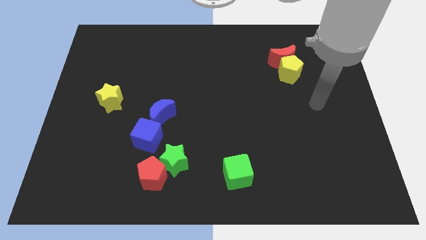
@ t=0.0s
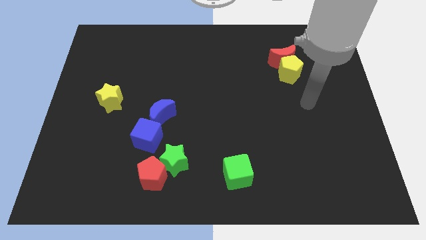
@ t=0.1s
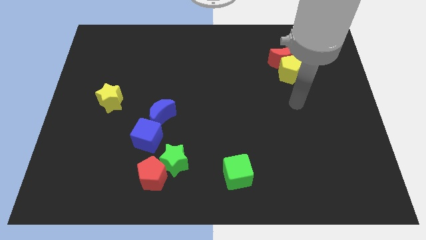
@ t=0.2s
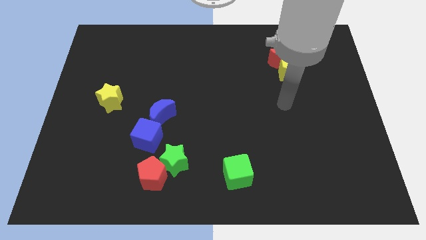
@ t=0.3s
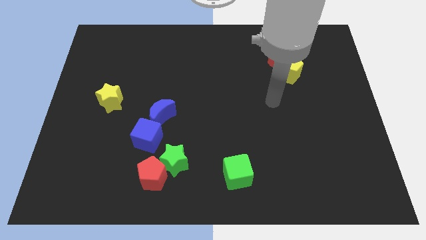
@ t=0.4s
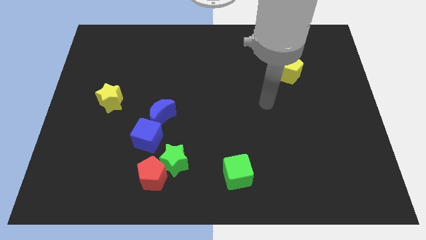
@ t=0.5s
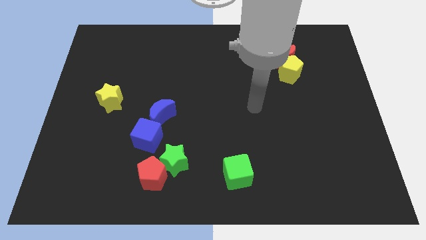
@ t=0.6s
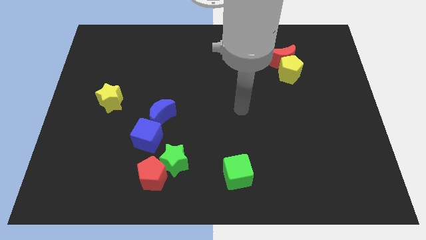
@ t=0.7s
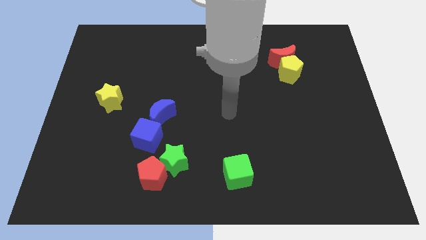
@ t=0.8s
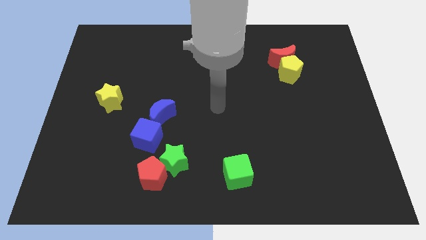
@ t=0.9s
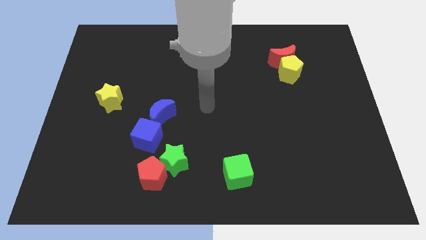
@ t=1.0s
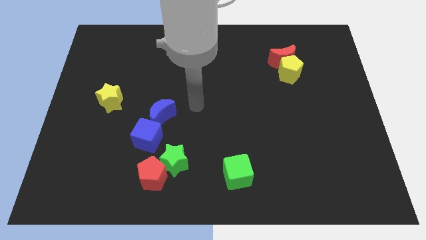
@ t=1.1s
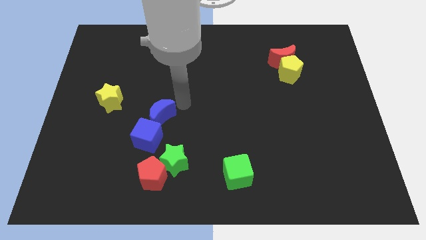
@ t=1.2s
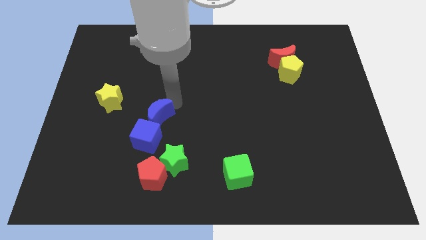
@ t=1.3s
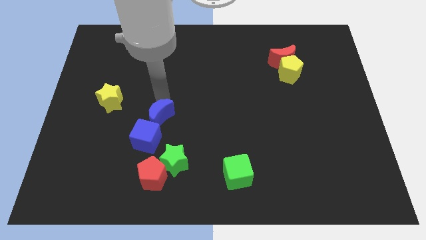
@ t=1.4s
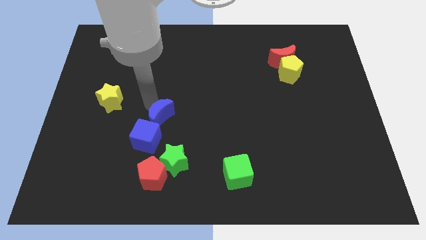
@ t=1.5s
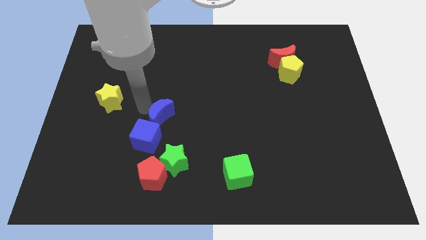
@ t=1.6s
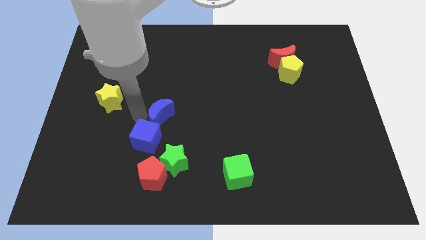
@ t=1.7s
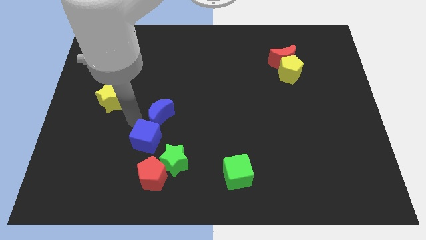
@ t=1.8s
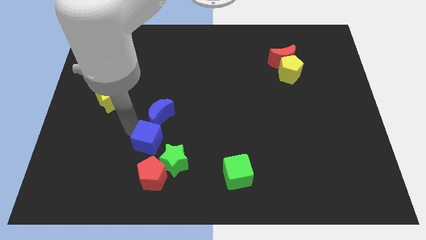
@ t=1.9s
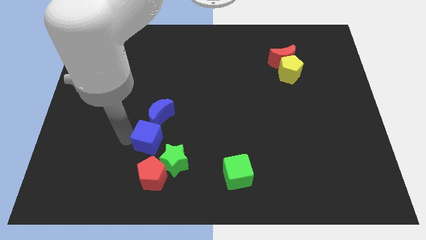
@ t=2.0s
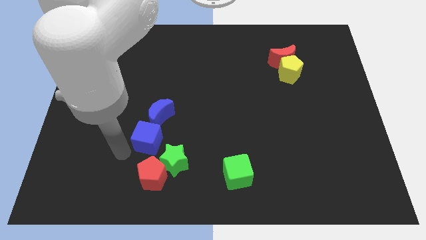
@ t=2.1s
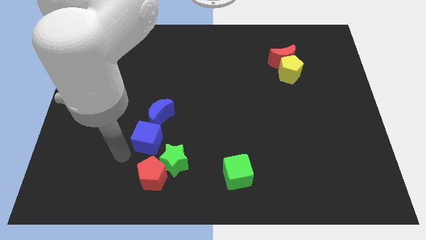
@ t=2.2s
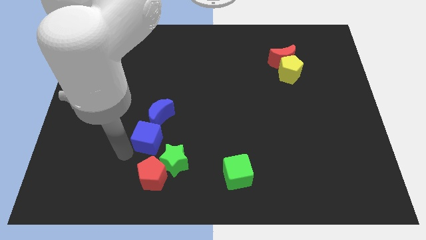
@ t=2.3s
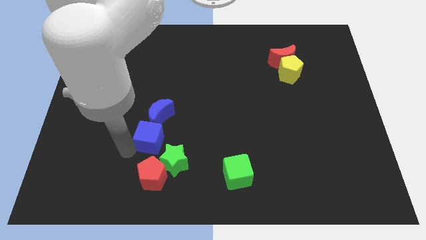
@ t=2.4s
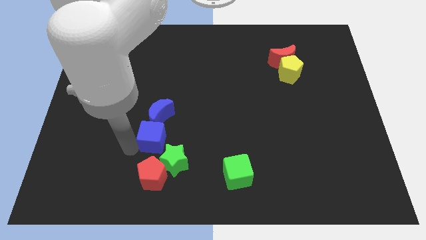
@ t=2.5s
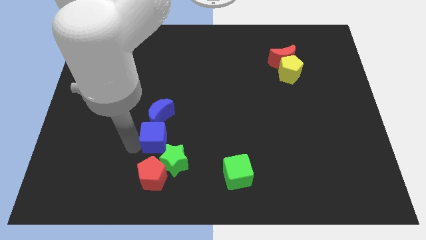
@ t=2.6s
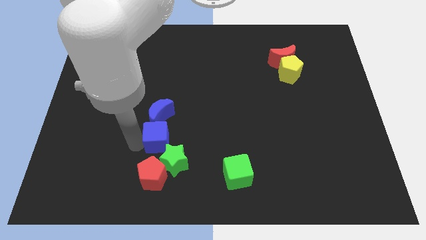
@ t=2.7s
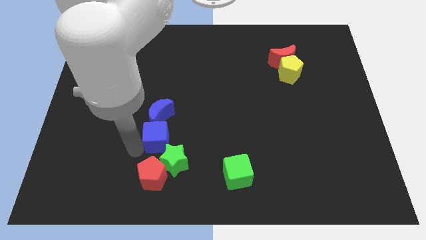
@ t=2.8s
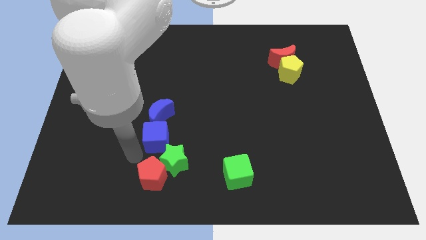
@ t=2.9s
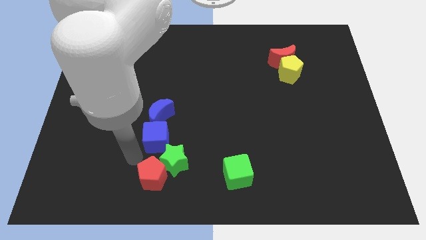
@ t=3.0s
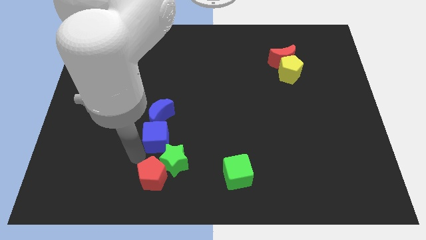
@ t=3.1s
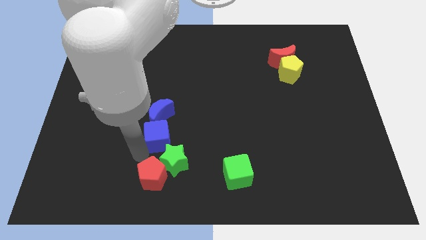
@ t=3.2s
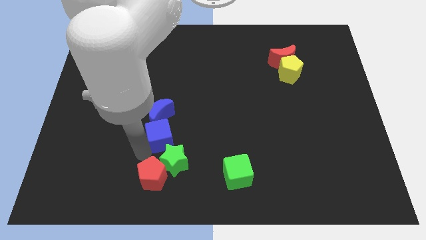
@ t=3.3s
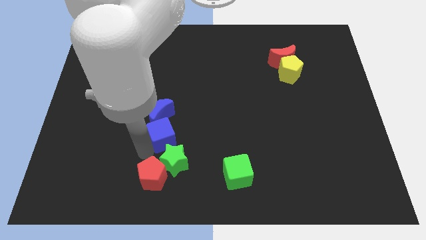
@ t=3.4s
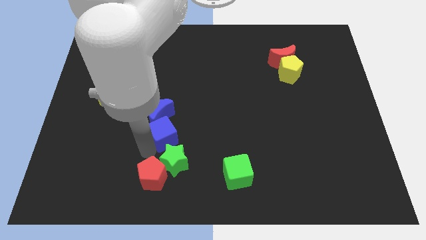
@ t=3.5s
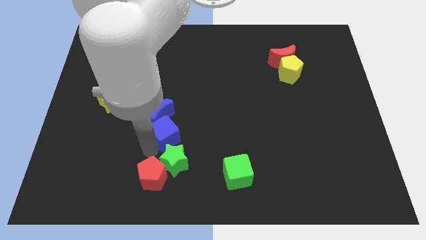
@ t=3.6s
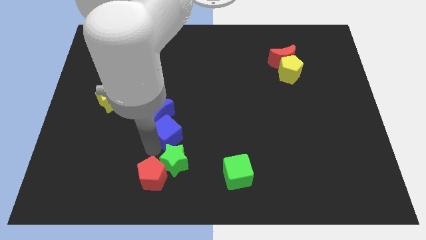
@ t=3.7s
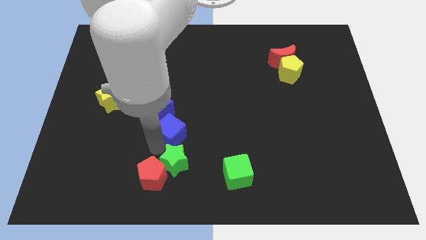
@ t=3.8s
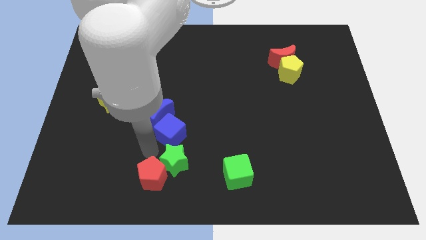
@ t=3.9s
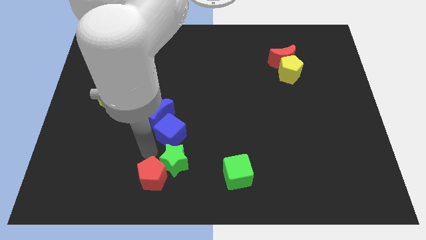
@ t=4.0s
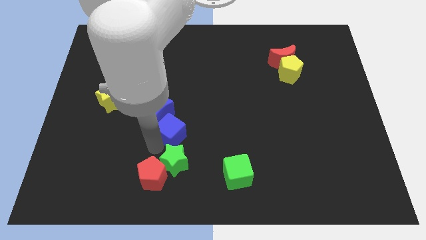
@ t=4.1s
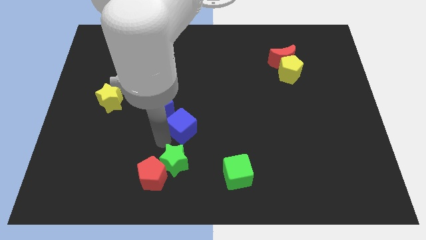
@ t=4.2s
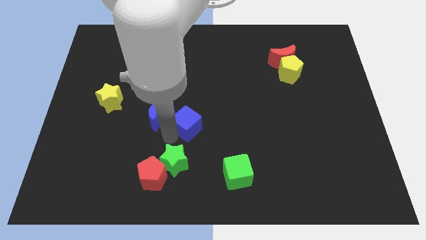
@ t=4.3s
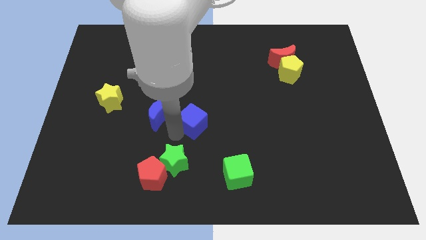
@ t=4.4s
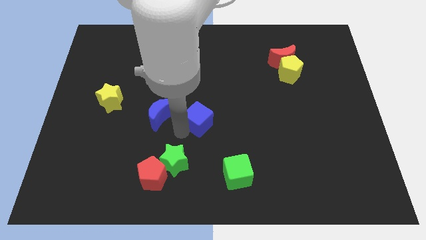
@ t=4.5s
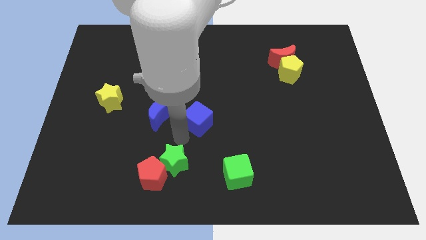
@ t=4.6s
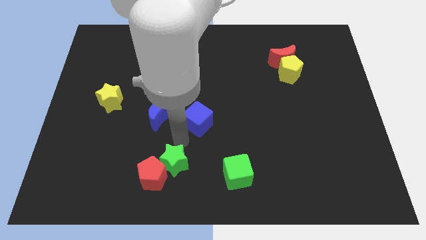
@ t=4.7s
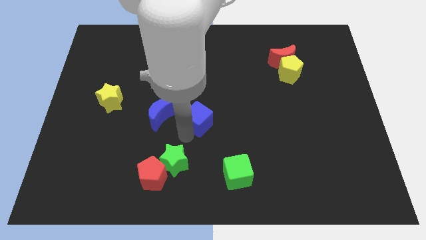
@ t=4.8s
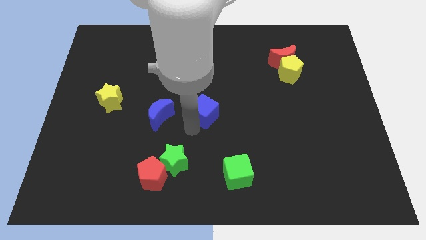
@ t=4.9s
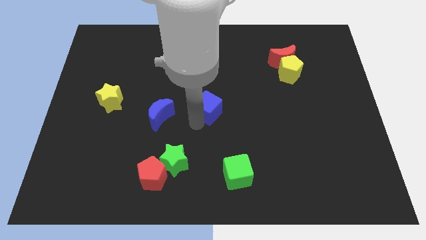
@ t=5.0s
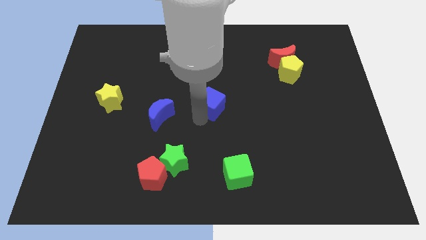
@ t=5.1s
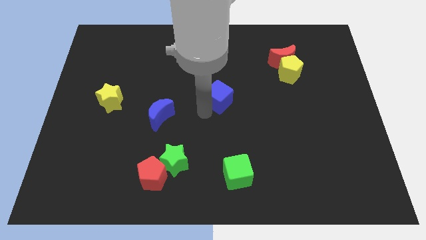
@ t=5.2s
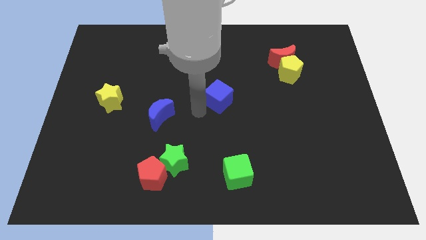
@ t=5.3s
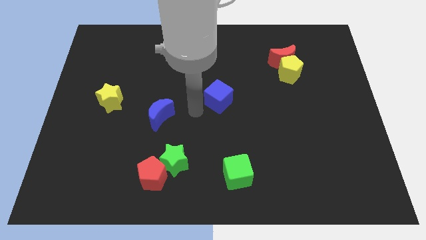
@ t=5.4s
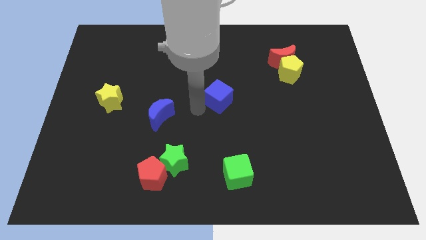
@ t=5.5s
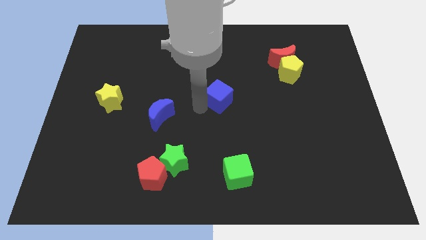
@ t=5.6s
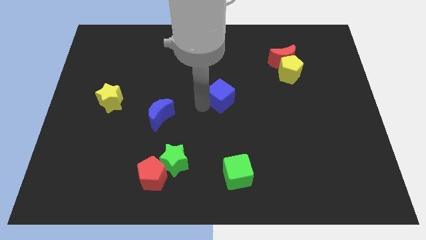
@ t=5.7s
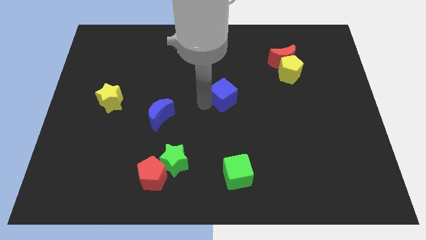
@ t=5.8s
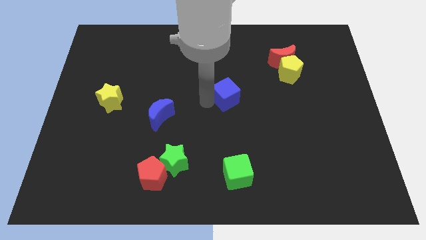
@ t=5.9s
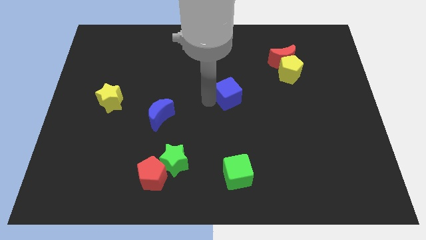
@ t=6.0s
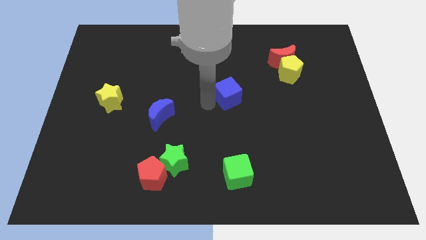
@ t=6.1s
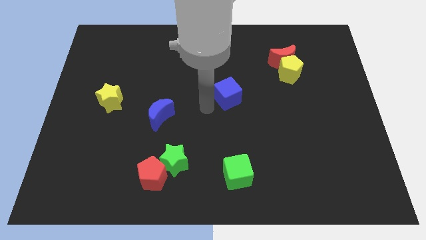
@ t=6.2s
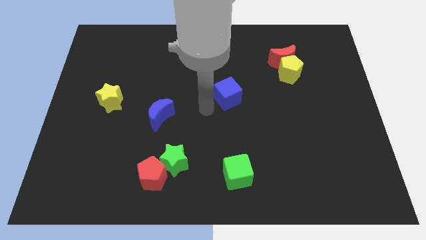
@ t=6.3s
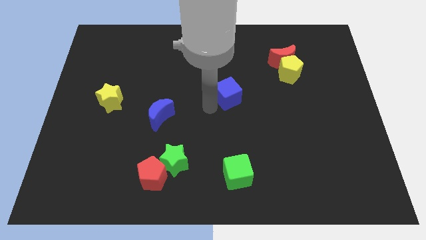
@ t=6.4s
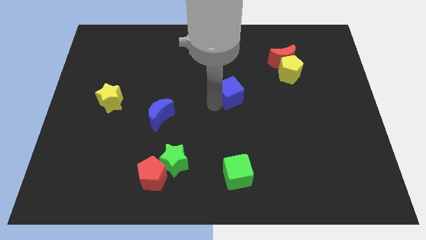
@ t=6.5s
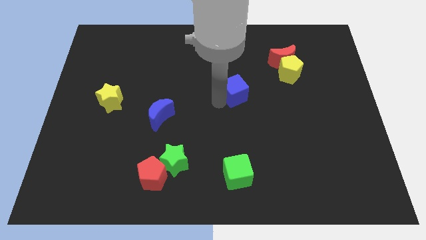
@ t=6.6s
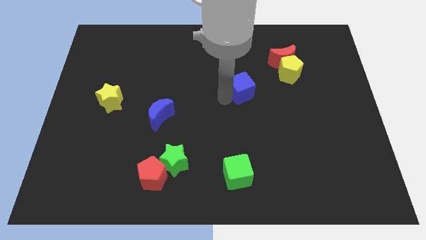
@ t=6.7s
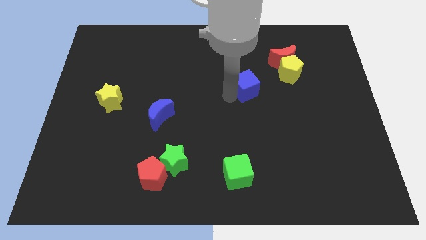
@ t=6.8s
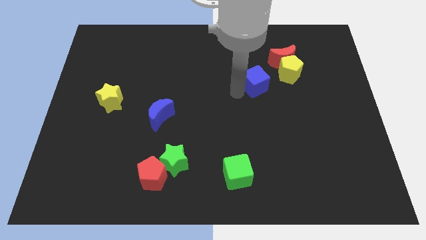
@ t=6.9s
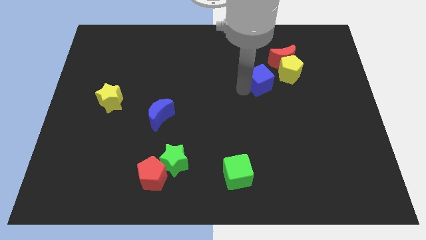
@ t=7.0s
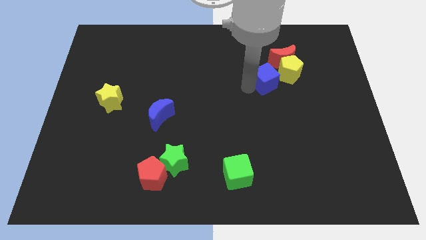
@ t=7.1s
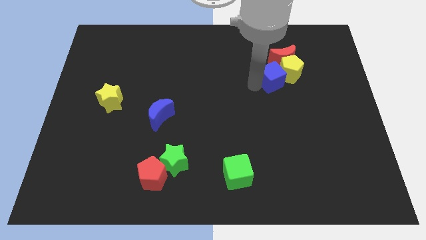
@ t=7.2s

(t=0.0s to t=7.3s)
move the blue cube towards the yellow pentagon
